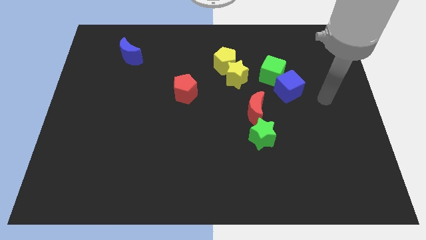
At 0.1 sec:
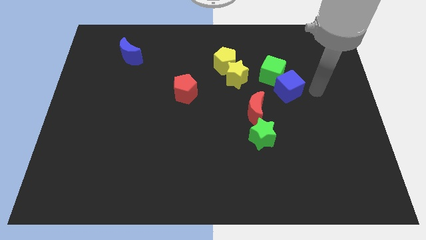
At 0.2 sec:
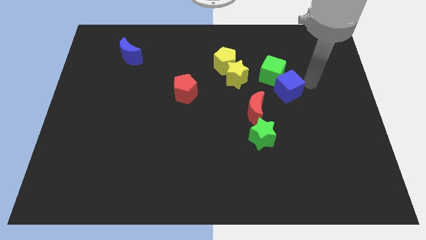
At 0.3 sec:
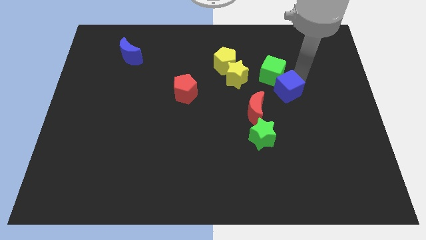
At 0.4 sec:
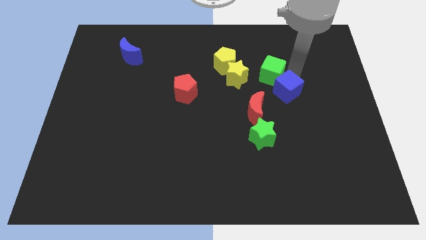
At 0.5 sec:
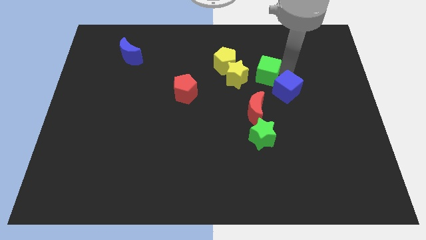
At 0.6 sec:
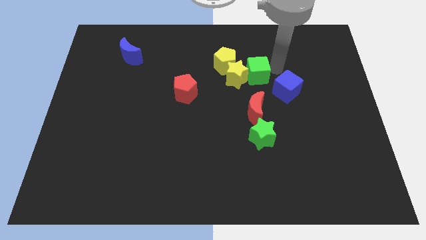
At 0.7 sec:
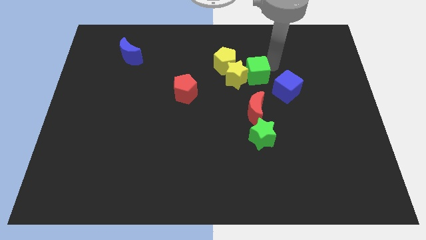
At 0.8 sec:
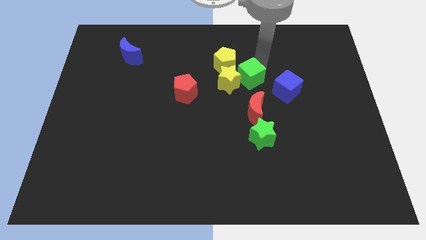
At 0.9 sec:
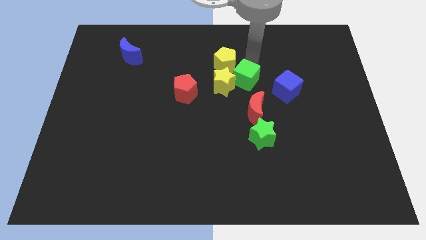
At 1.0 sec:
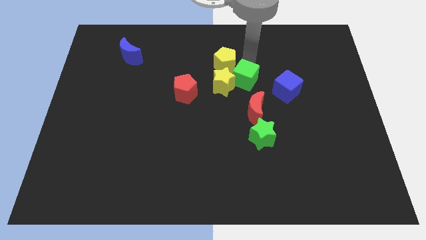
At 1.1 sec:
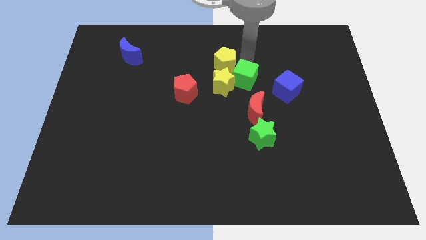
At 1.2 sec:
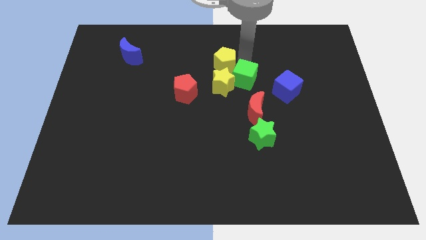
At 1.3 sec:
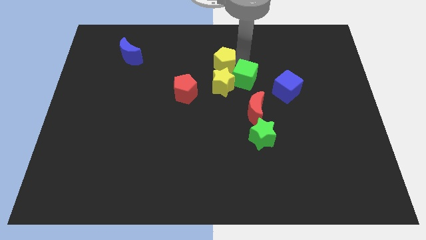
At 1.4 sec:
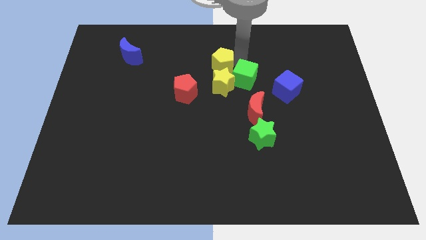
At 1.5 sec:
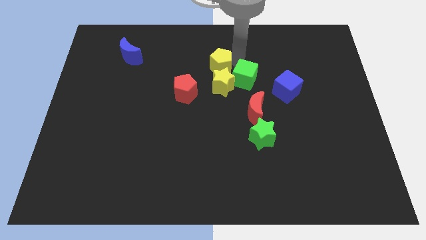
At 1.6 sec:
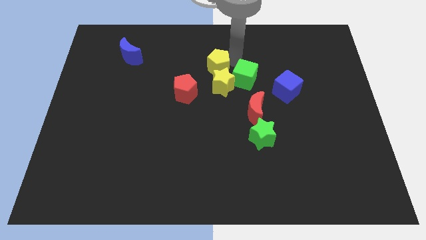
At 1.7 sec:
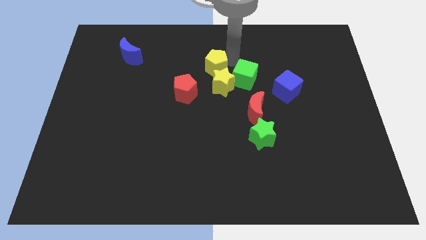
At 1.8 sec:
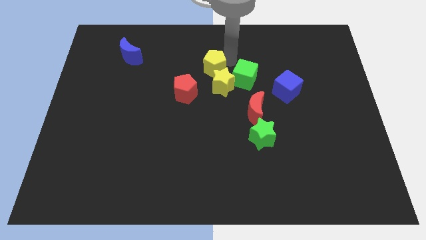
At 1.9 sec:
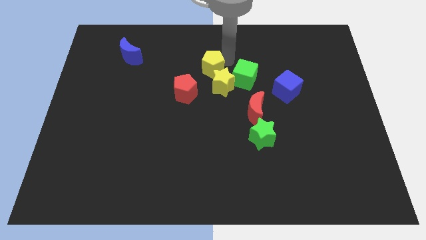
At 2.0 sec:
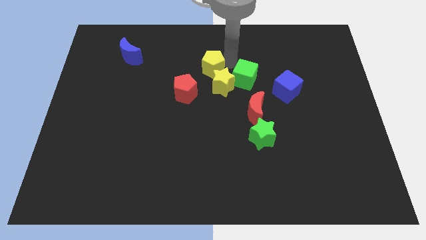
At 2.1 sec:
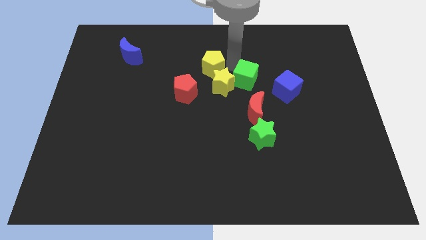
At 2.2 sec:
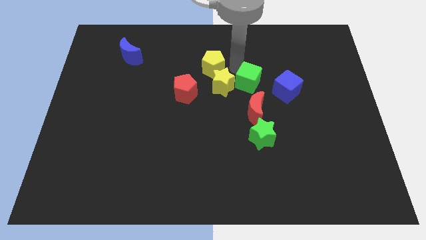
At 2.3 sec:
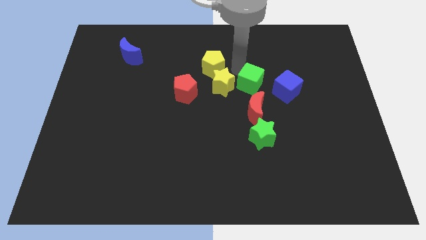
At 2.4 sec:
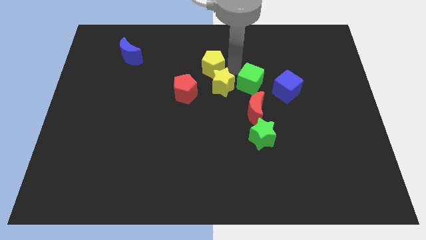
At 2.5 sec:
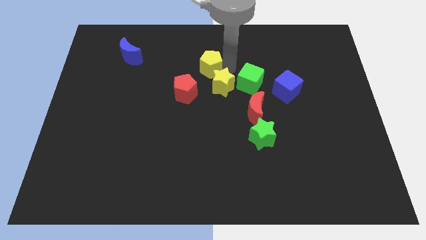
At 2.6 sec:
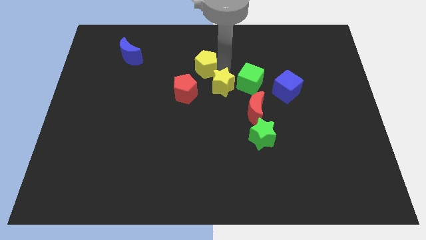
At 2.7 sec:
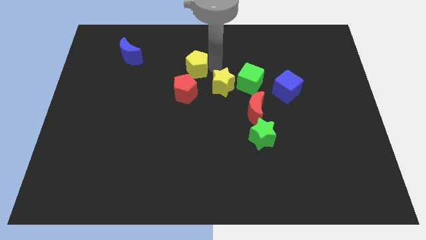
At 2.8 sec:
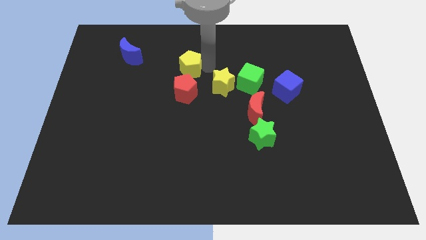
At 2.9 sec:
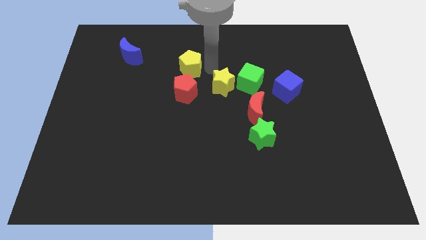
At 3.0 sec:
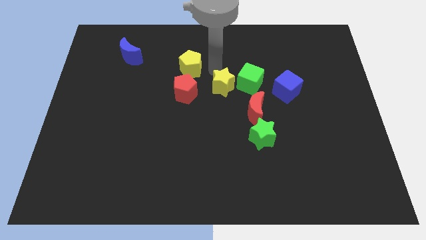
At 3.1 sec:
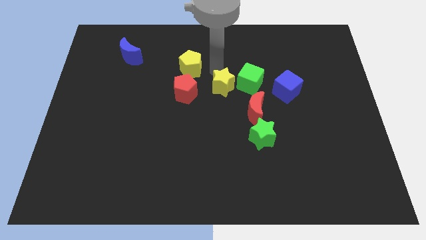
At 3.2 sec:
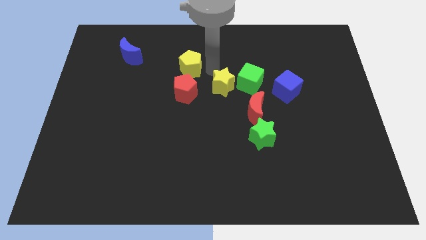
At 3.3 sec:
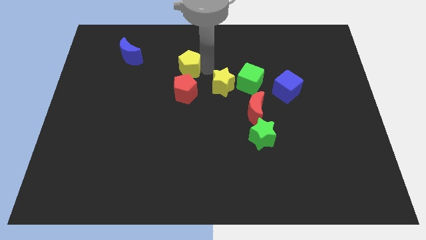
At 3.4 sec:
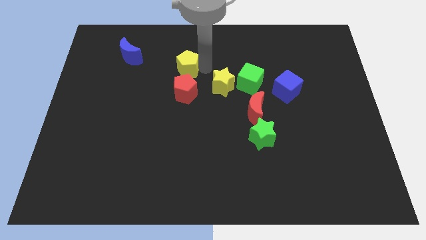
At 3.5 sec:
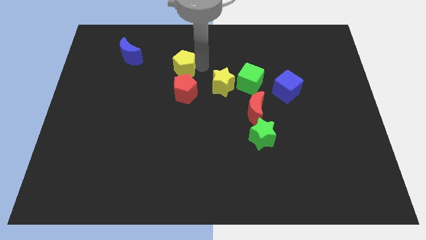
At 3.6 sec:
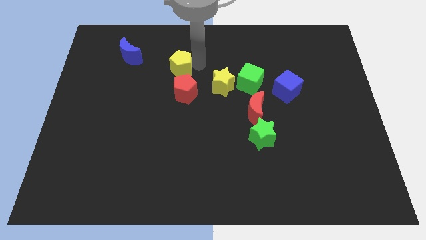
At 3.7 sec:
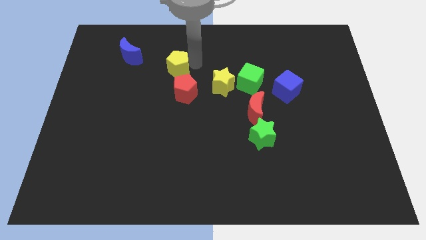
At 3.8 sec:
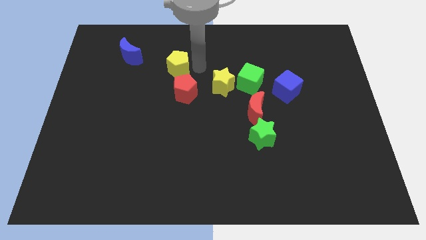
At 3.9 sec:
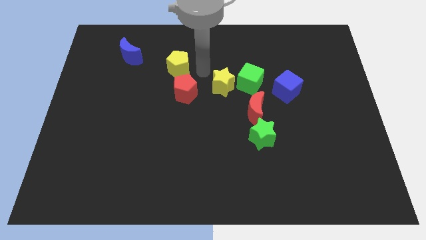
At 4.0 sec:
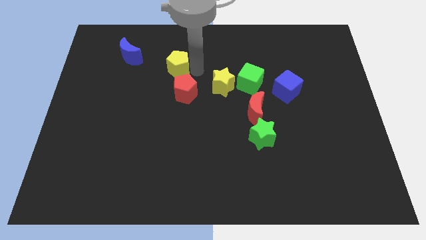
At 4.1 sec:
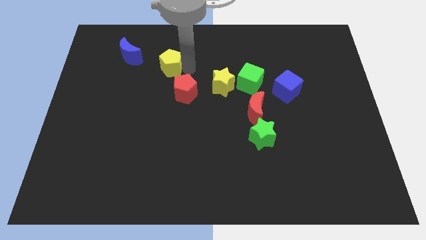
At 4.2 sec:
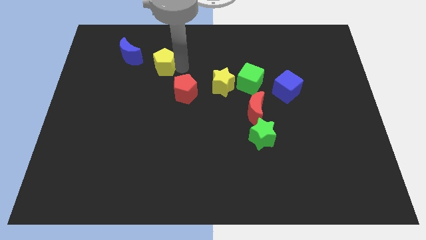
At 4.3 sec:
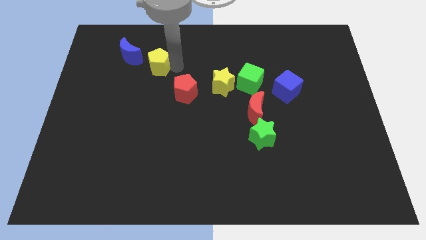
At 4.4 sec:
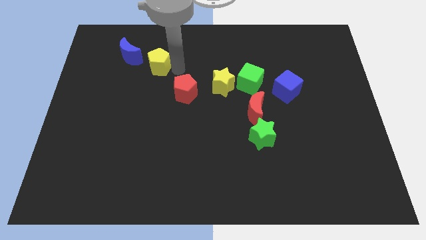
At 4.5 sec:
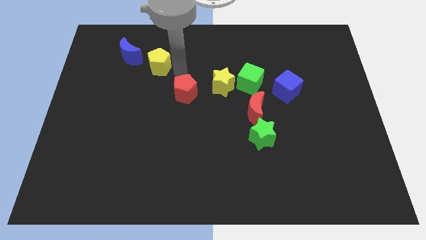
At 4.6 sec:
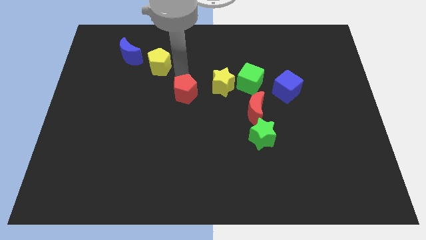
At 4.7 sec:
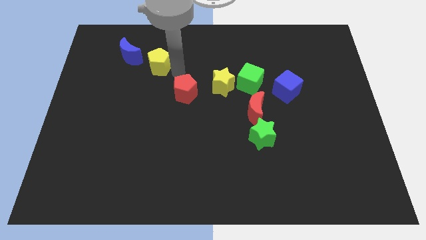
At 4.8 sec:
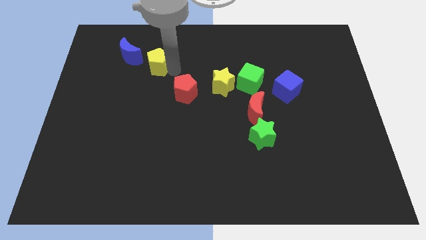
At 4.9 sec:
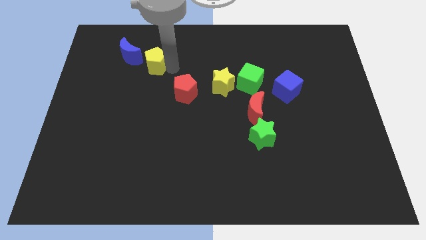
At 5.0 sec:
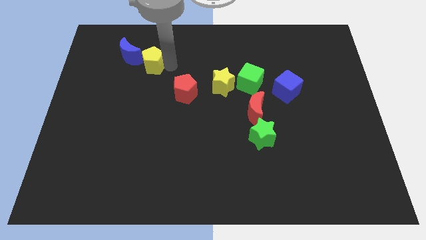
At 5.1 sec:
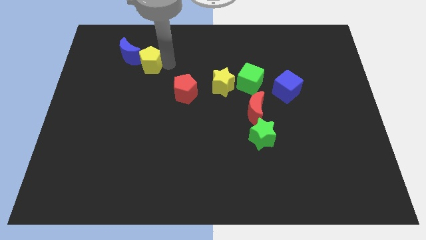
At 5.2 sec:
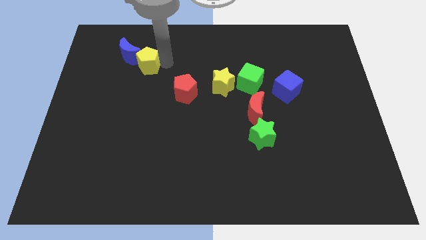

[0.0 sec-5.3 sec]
move the yellow pentagon close to the blue moon

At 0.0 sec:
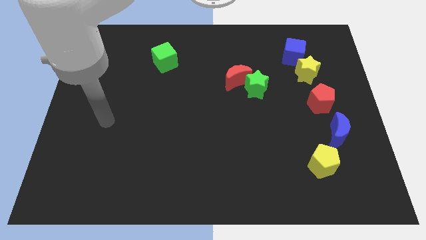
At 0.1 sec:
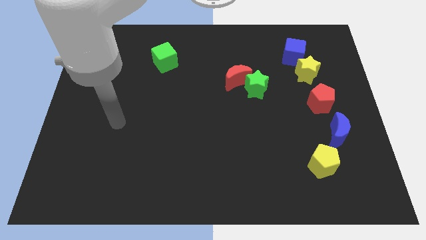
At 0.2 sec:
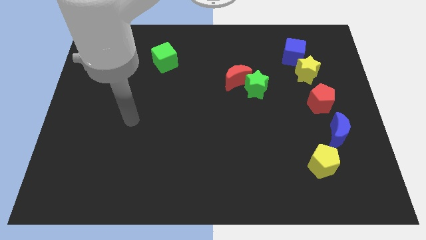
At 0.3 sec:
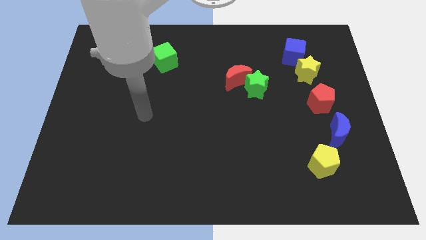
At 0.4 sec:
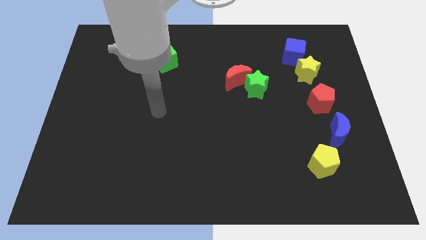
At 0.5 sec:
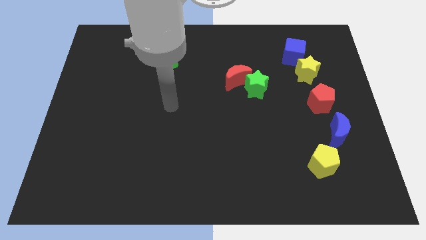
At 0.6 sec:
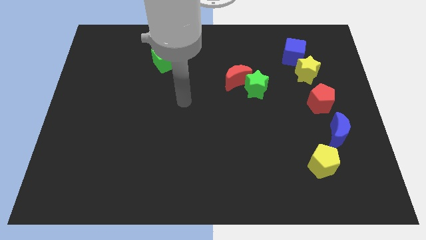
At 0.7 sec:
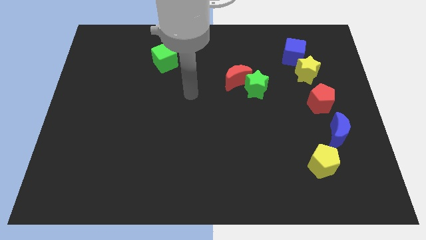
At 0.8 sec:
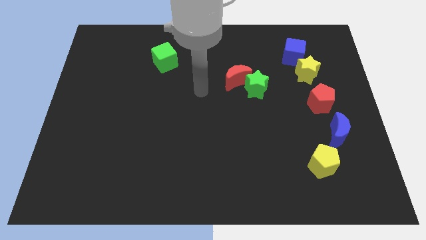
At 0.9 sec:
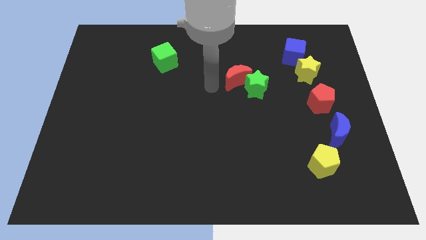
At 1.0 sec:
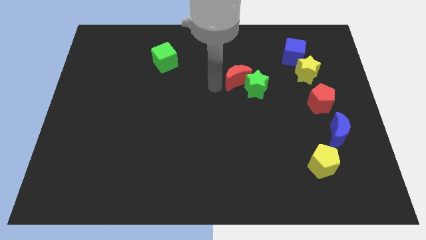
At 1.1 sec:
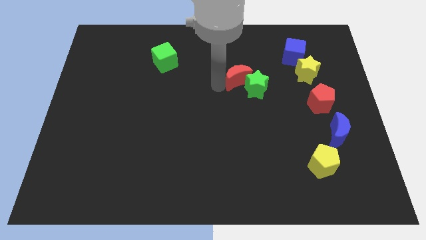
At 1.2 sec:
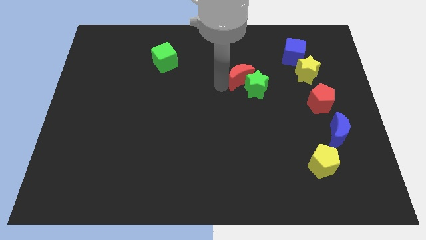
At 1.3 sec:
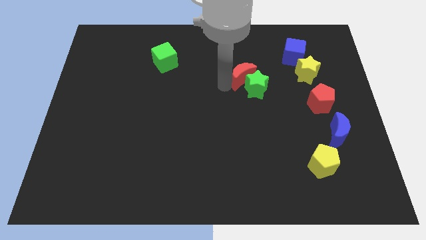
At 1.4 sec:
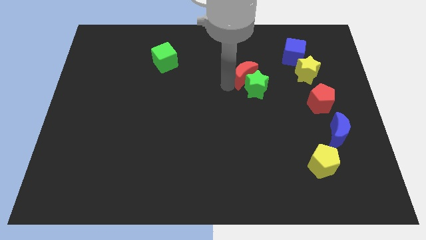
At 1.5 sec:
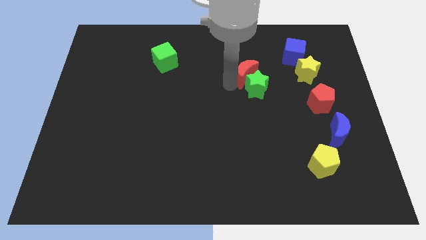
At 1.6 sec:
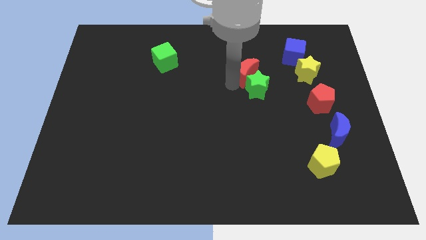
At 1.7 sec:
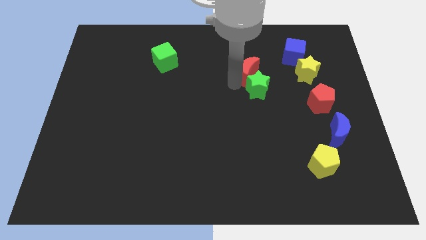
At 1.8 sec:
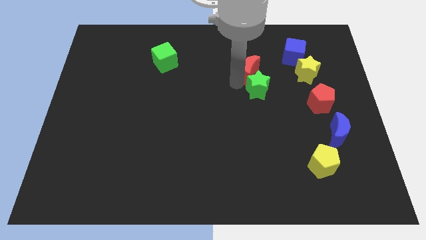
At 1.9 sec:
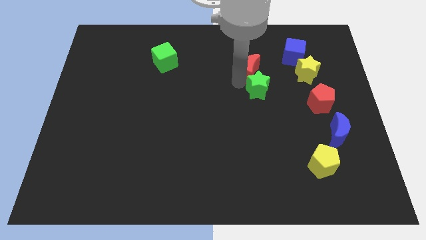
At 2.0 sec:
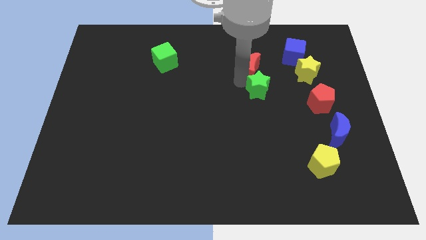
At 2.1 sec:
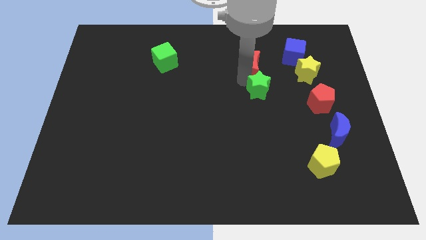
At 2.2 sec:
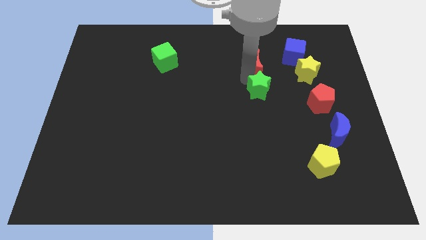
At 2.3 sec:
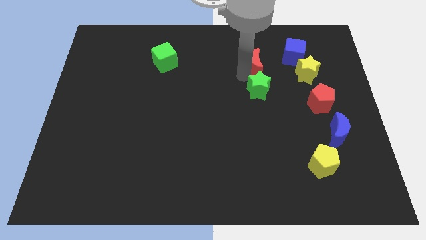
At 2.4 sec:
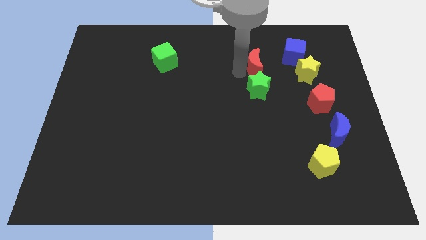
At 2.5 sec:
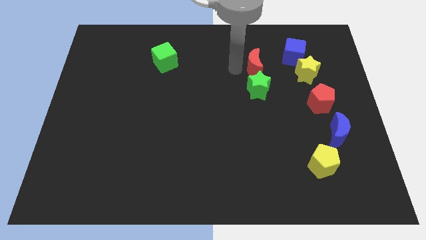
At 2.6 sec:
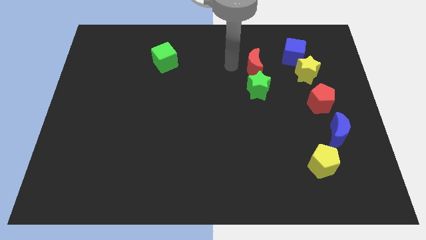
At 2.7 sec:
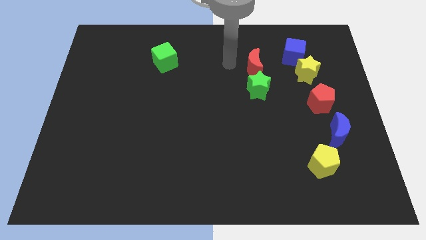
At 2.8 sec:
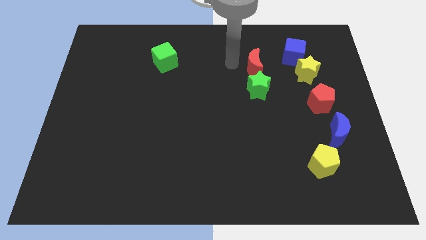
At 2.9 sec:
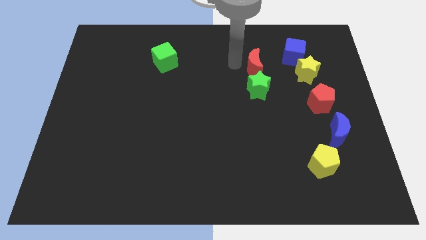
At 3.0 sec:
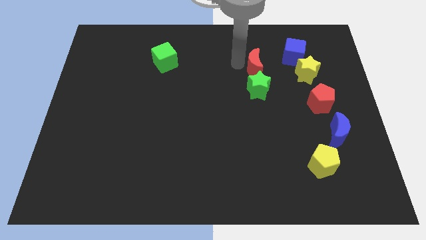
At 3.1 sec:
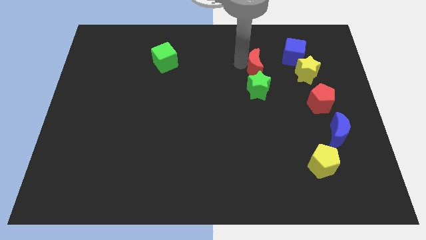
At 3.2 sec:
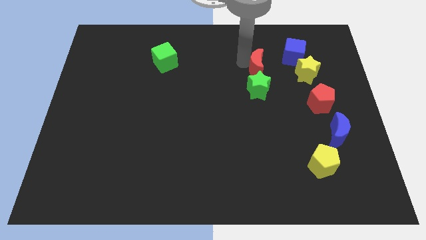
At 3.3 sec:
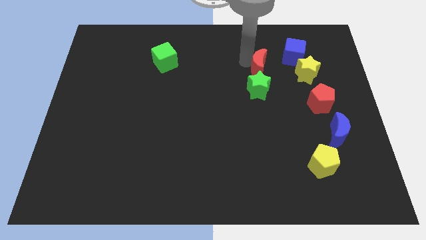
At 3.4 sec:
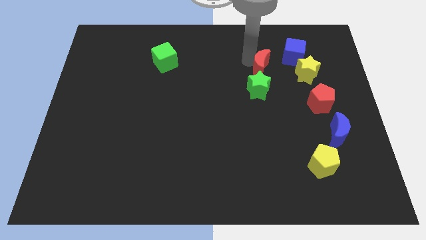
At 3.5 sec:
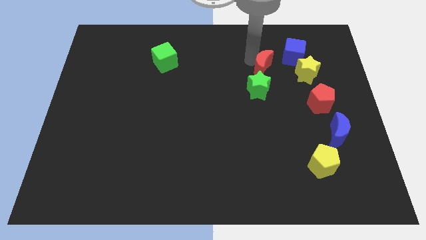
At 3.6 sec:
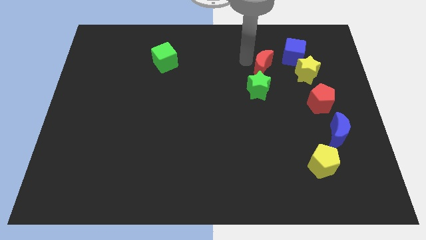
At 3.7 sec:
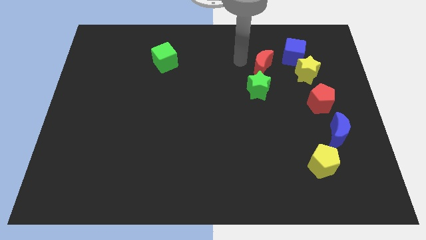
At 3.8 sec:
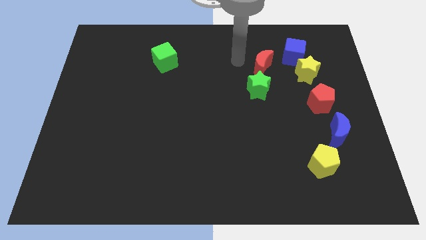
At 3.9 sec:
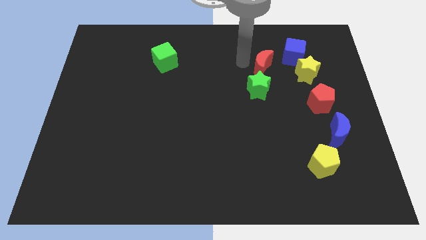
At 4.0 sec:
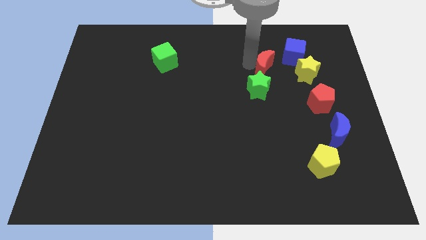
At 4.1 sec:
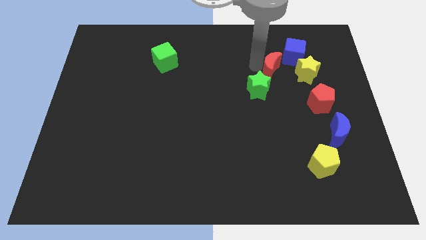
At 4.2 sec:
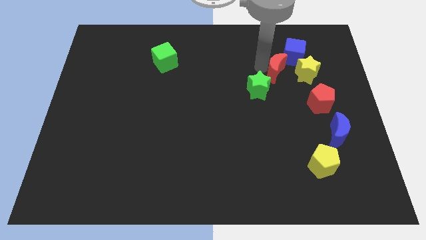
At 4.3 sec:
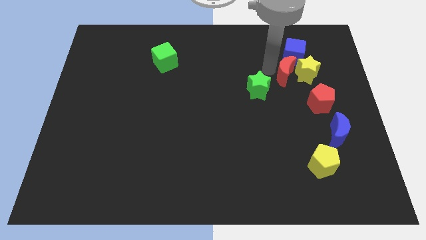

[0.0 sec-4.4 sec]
slide the red moon towards the yellow star
